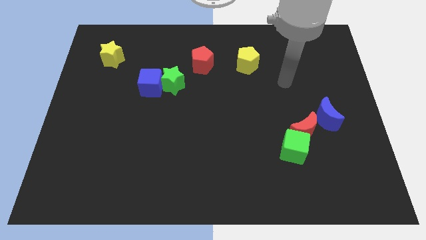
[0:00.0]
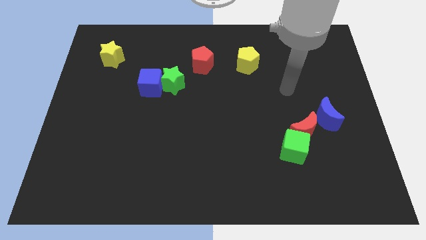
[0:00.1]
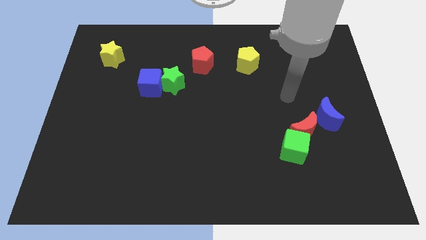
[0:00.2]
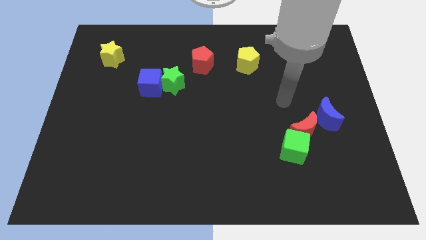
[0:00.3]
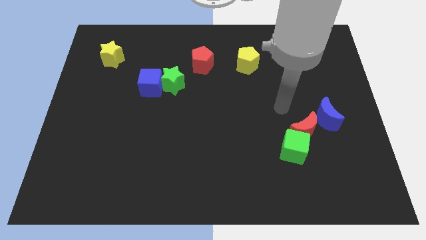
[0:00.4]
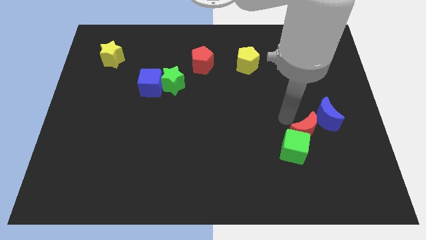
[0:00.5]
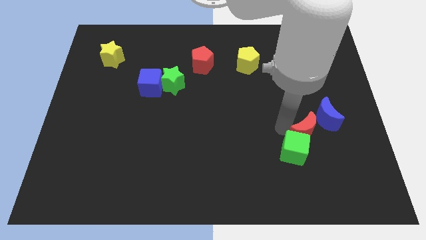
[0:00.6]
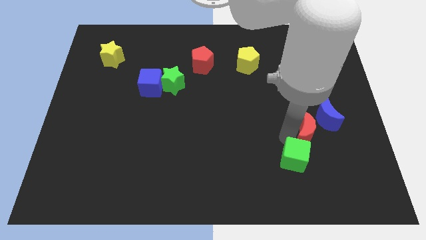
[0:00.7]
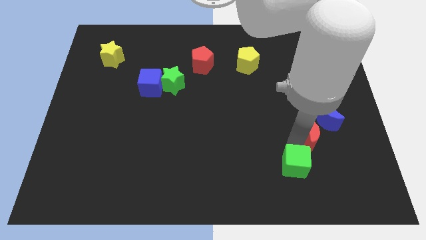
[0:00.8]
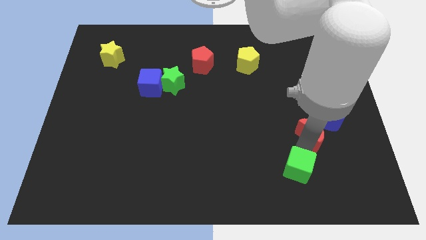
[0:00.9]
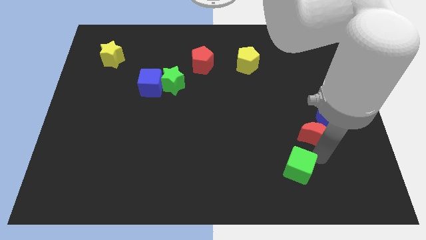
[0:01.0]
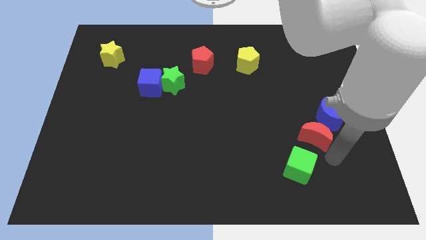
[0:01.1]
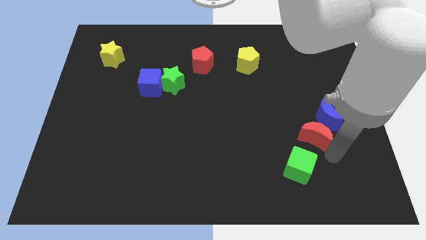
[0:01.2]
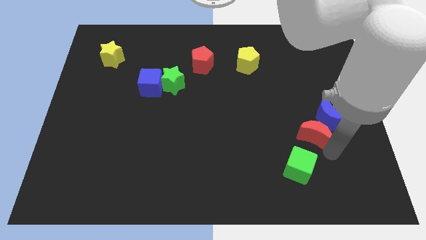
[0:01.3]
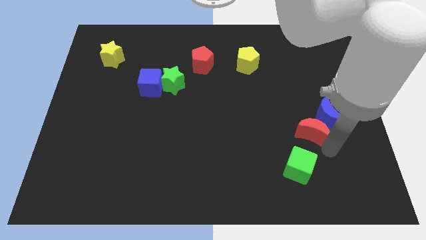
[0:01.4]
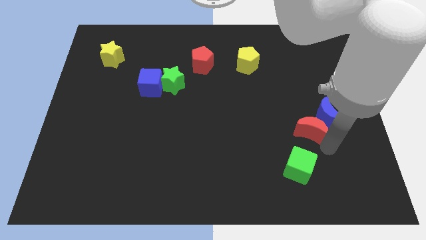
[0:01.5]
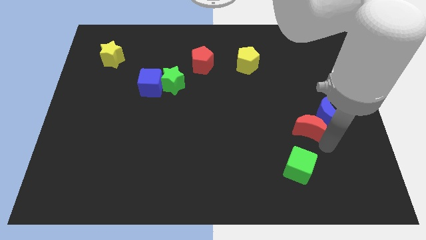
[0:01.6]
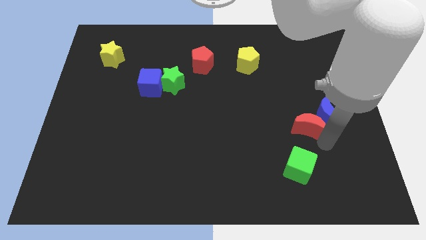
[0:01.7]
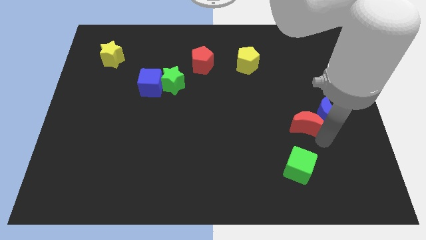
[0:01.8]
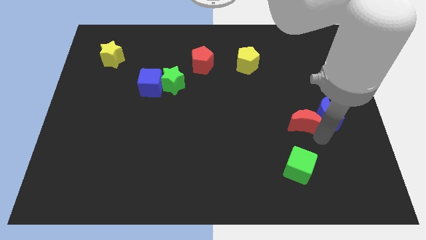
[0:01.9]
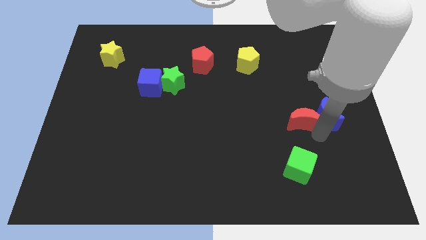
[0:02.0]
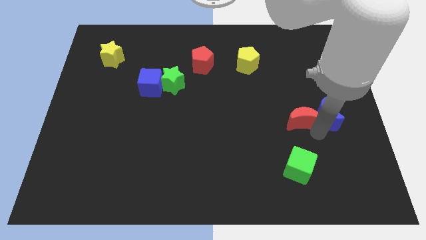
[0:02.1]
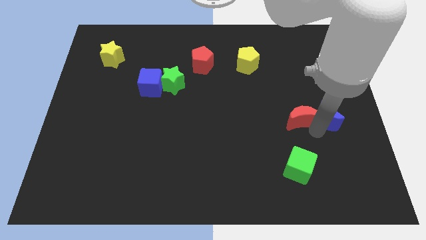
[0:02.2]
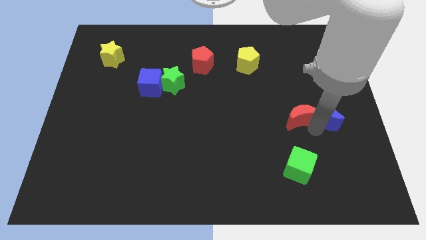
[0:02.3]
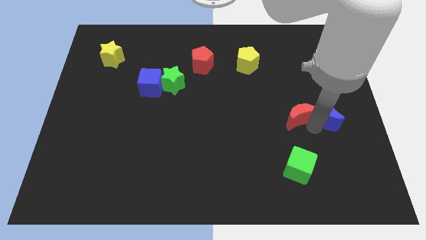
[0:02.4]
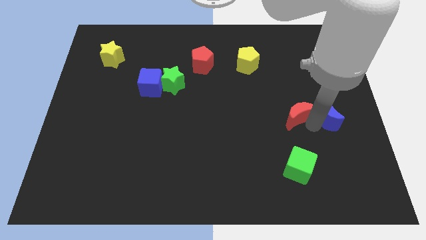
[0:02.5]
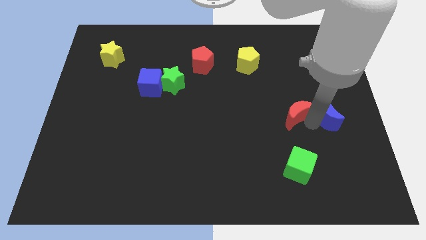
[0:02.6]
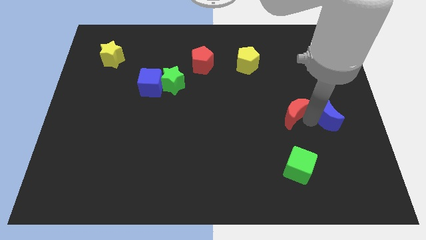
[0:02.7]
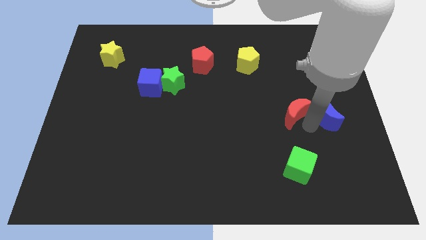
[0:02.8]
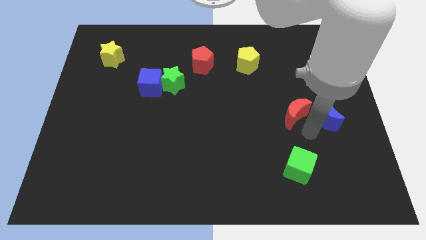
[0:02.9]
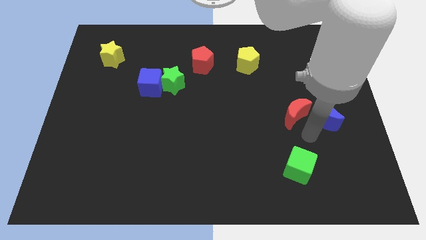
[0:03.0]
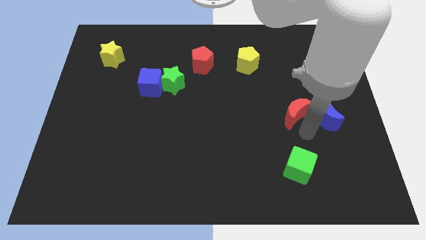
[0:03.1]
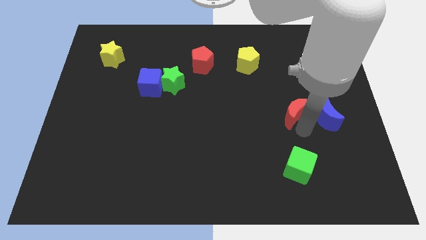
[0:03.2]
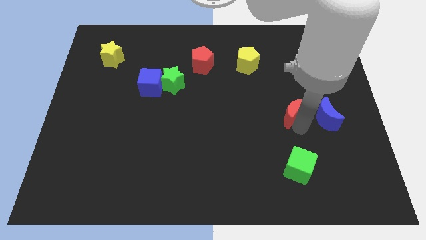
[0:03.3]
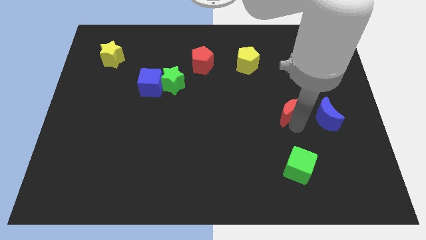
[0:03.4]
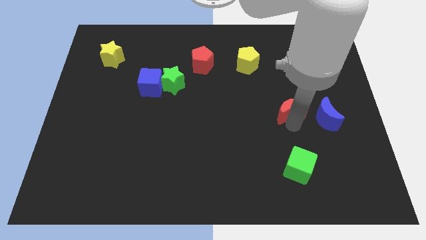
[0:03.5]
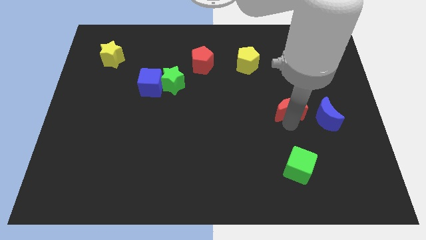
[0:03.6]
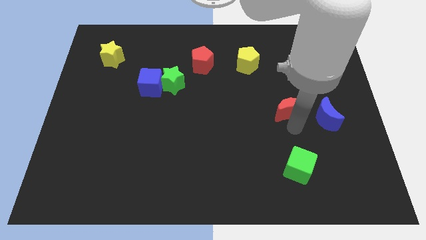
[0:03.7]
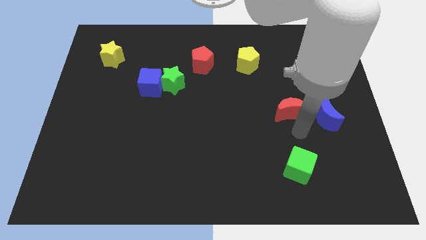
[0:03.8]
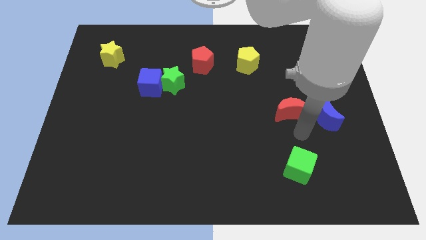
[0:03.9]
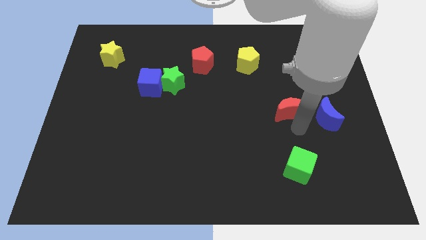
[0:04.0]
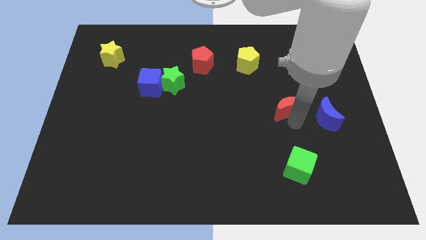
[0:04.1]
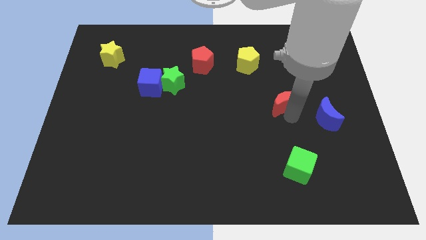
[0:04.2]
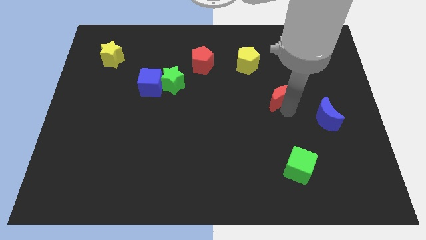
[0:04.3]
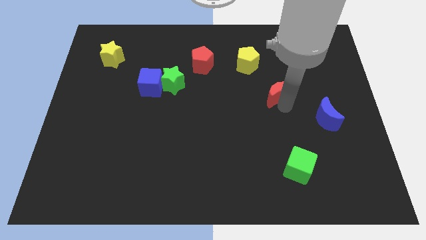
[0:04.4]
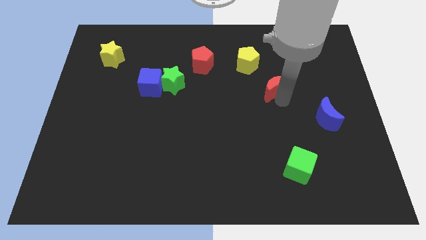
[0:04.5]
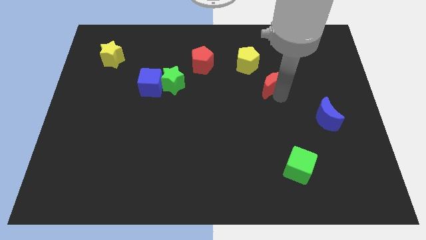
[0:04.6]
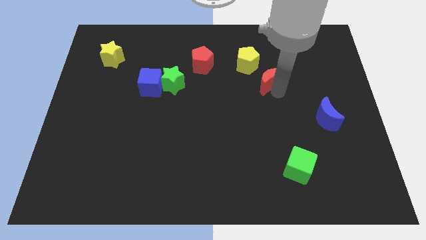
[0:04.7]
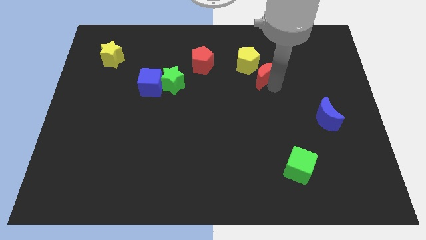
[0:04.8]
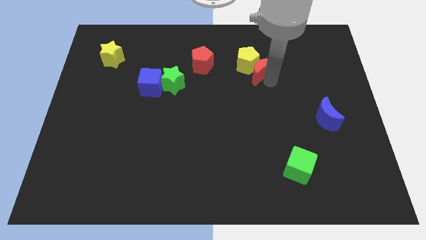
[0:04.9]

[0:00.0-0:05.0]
push the red moon next to the yellow pentagon

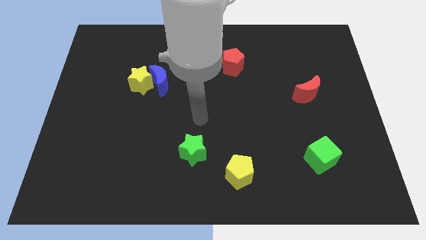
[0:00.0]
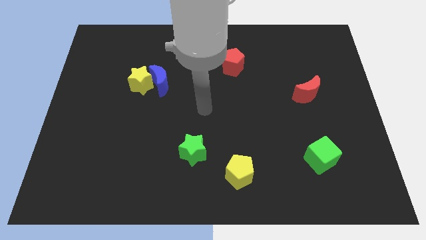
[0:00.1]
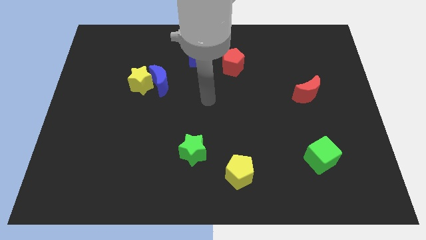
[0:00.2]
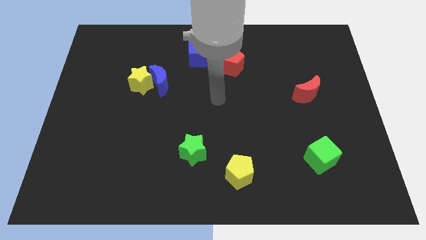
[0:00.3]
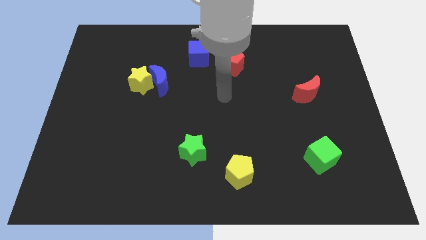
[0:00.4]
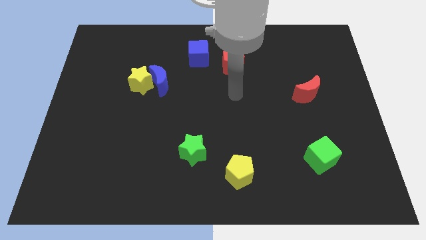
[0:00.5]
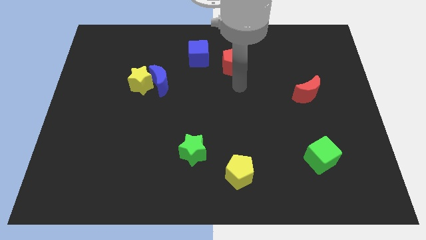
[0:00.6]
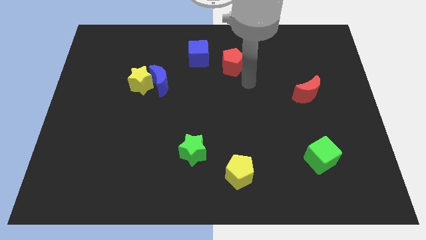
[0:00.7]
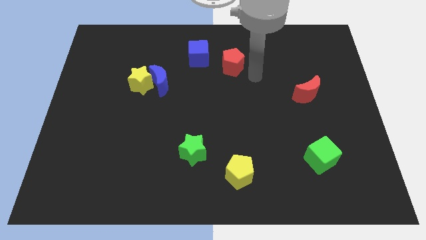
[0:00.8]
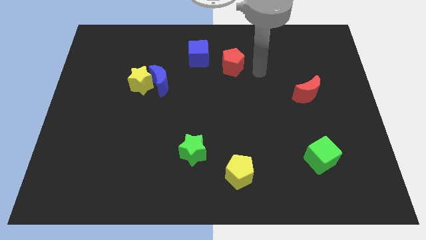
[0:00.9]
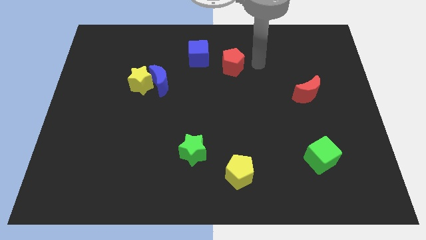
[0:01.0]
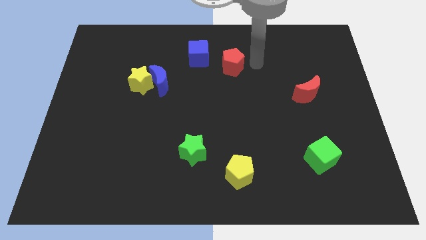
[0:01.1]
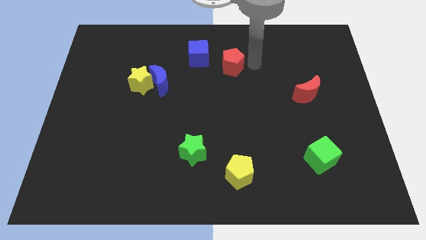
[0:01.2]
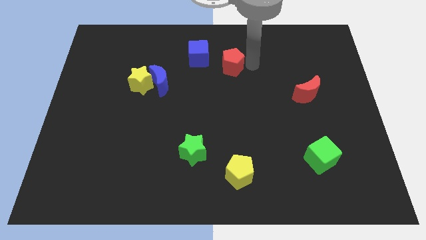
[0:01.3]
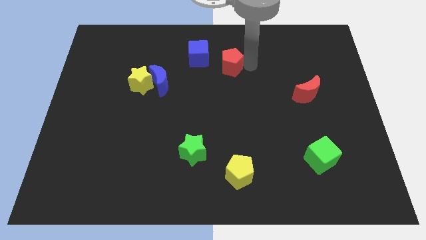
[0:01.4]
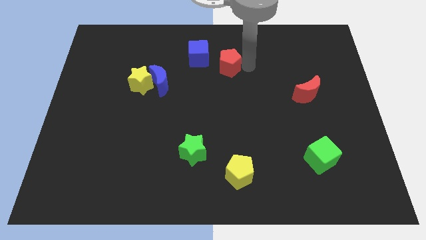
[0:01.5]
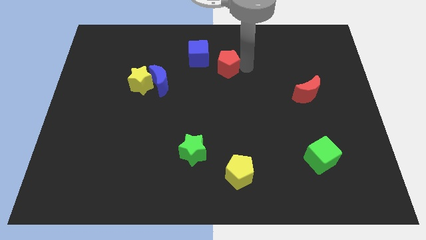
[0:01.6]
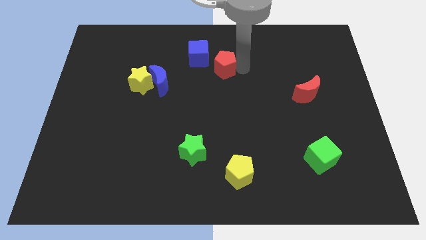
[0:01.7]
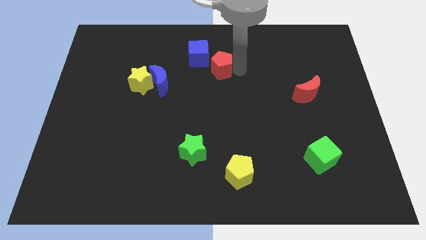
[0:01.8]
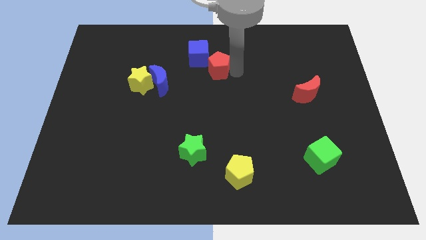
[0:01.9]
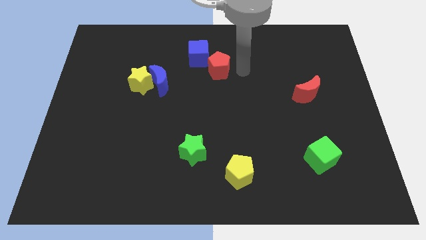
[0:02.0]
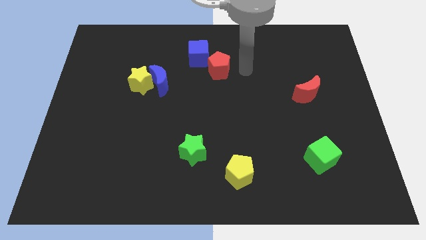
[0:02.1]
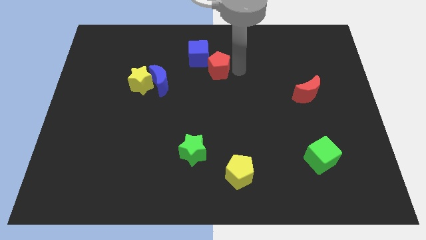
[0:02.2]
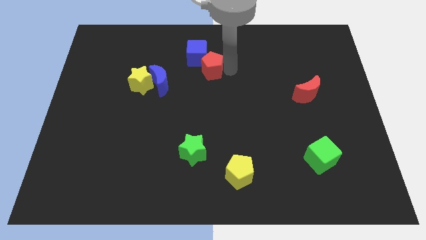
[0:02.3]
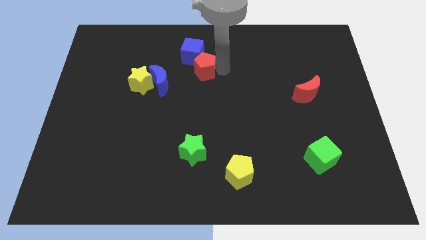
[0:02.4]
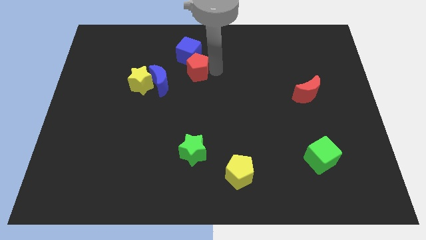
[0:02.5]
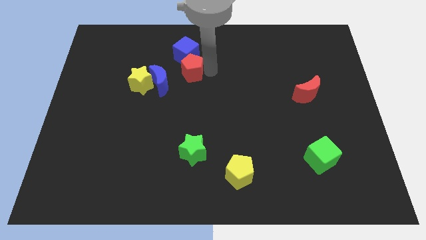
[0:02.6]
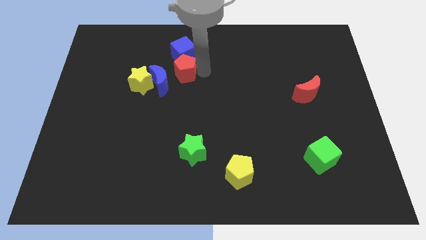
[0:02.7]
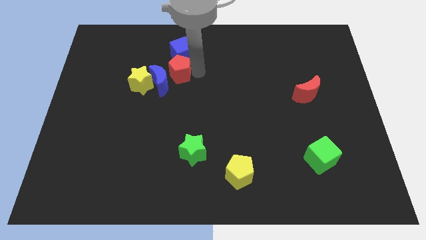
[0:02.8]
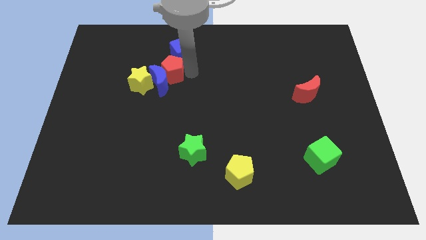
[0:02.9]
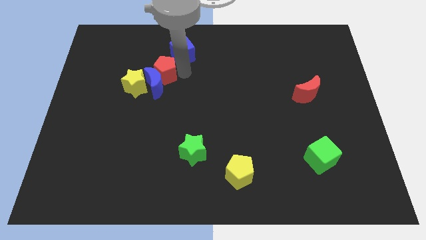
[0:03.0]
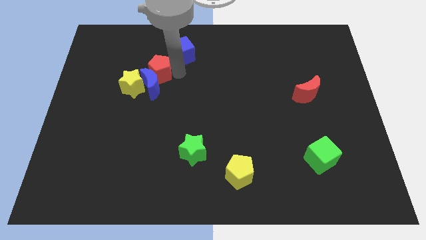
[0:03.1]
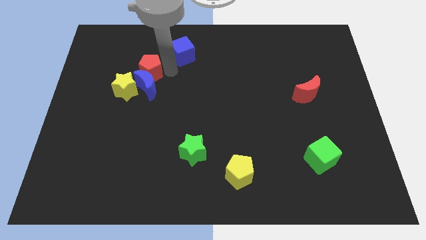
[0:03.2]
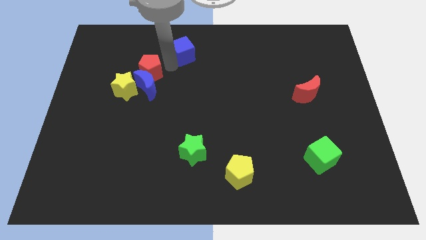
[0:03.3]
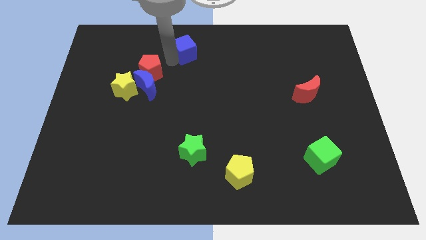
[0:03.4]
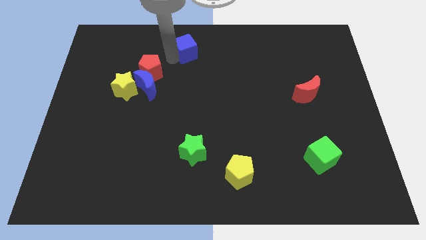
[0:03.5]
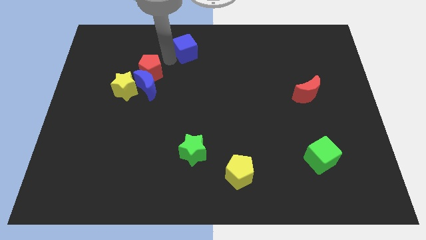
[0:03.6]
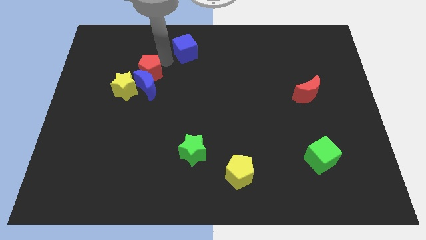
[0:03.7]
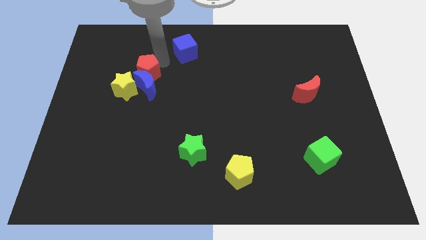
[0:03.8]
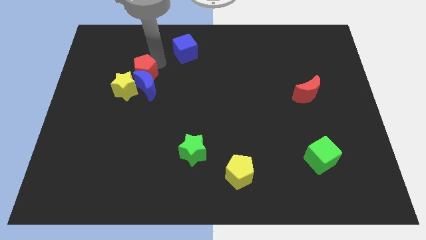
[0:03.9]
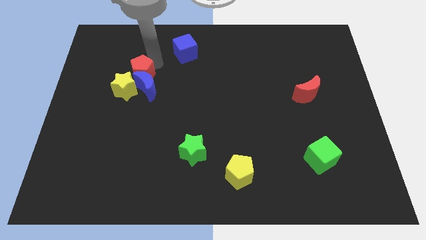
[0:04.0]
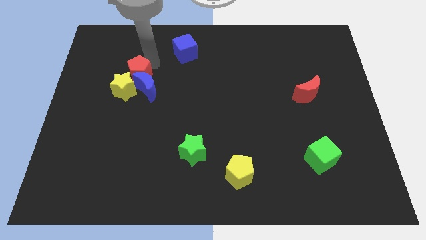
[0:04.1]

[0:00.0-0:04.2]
push the red pentagon close to the yellow star
